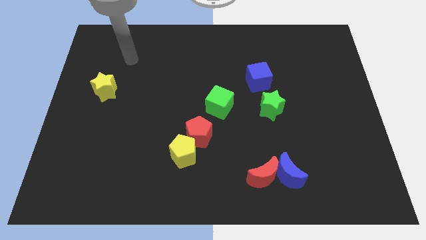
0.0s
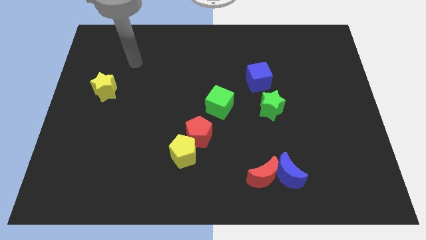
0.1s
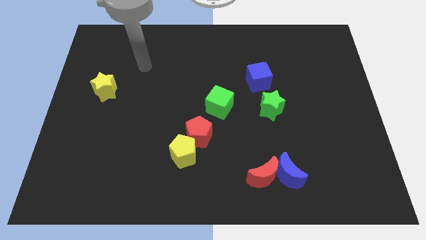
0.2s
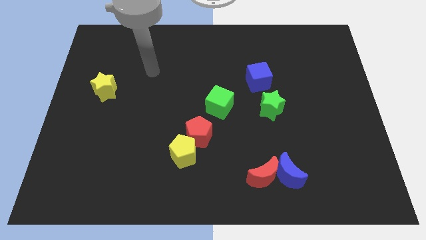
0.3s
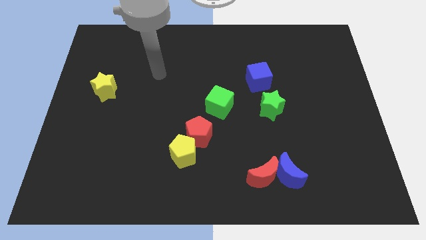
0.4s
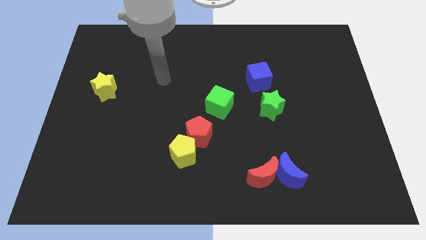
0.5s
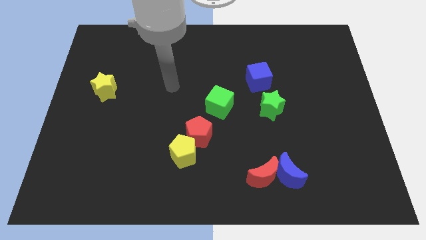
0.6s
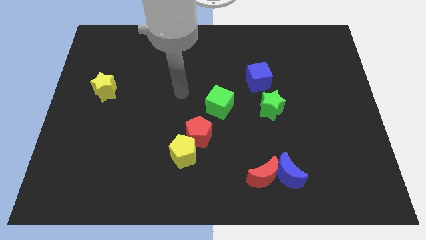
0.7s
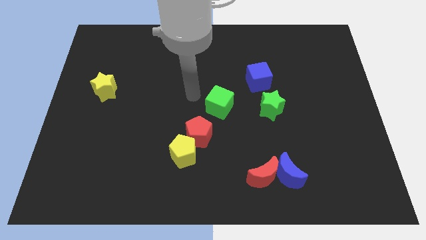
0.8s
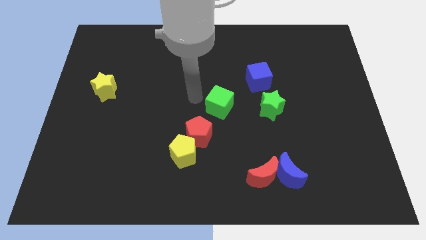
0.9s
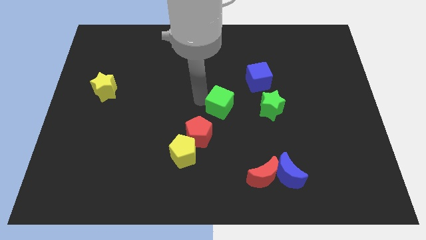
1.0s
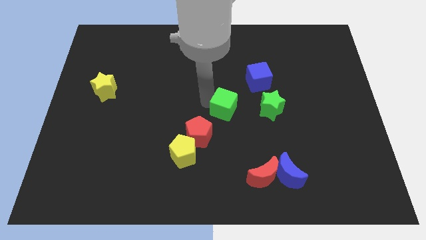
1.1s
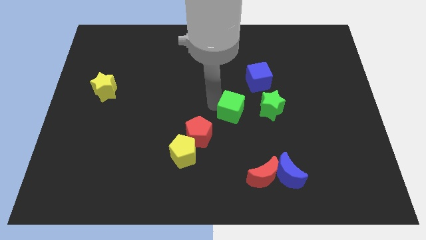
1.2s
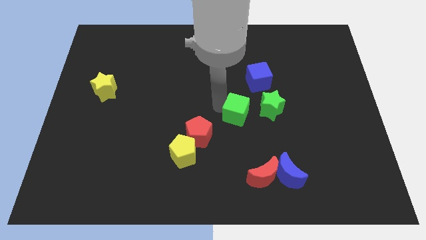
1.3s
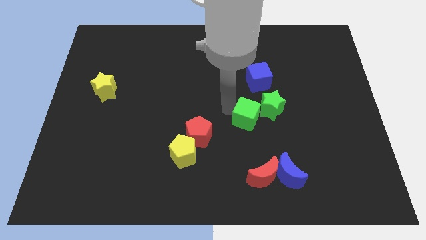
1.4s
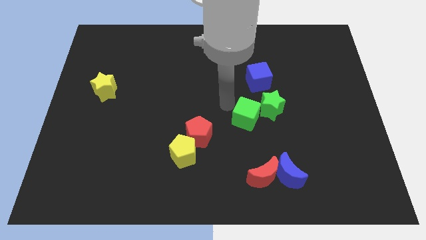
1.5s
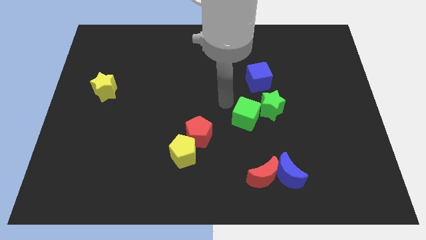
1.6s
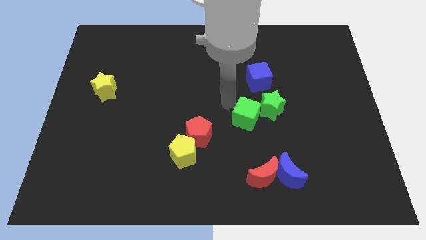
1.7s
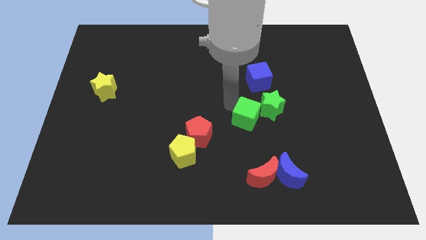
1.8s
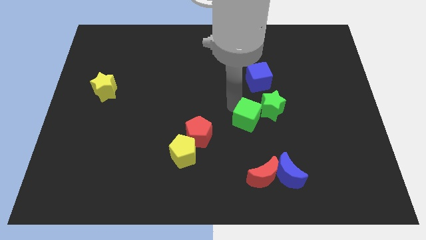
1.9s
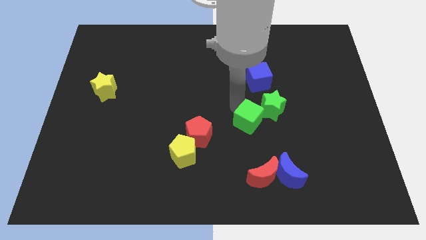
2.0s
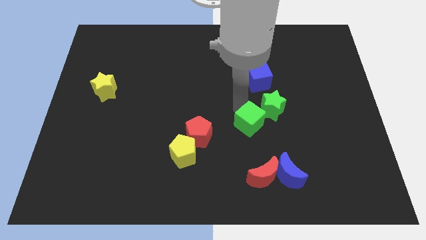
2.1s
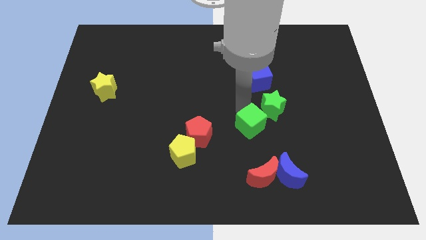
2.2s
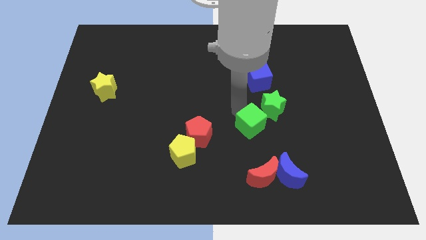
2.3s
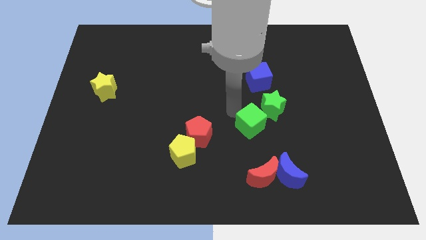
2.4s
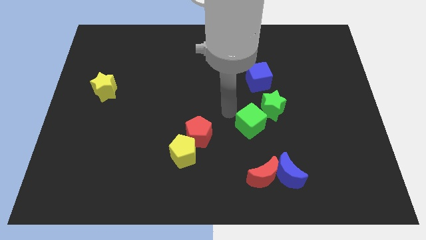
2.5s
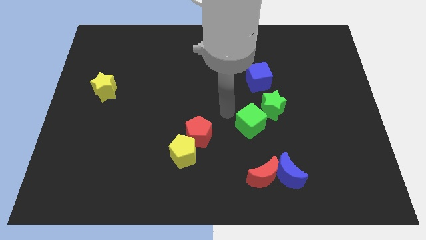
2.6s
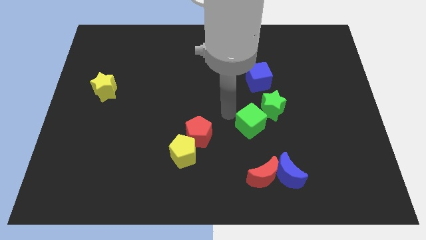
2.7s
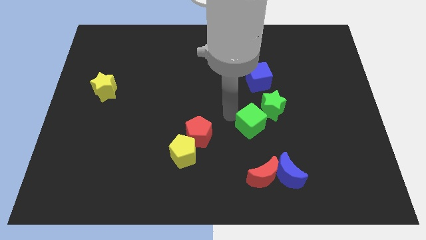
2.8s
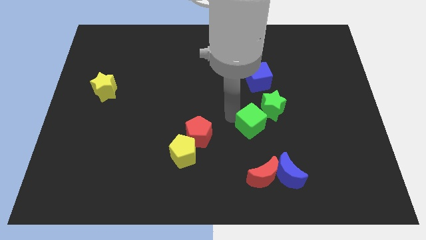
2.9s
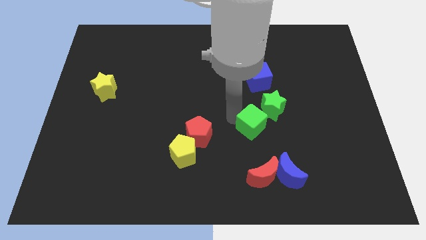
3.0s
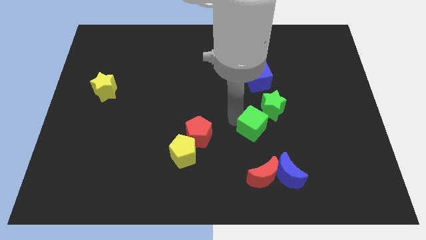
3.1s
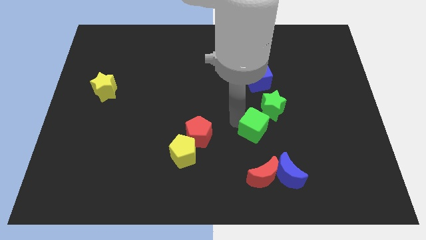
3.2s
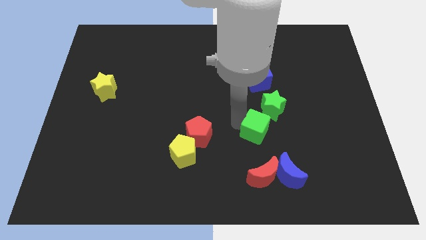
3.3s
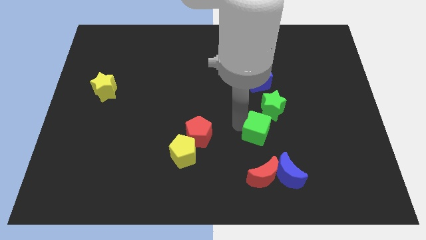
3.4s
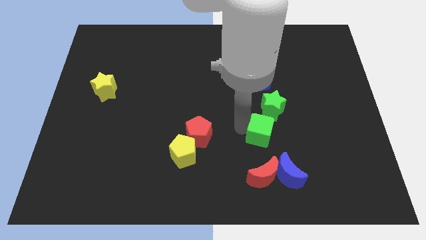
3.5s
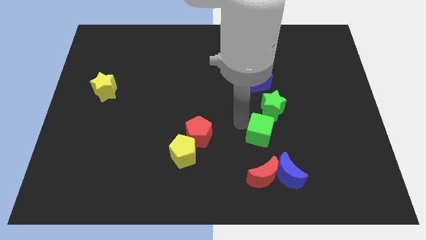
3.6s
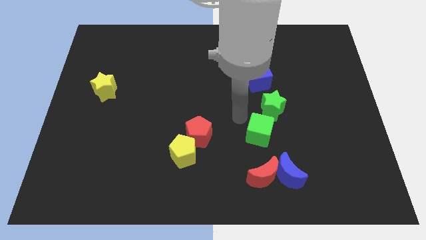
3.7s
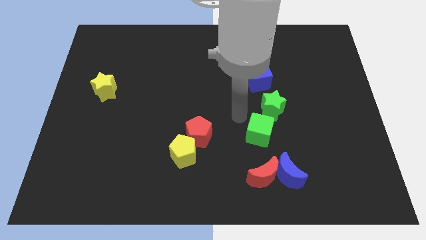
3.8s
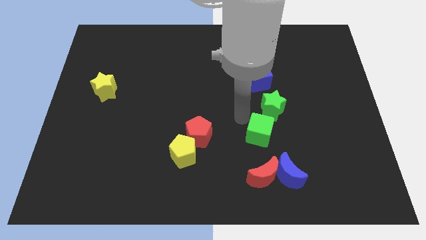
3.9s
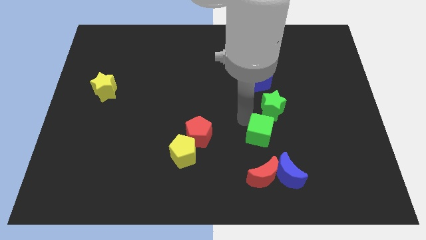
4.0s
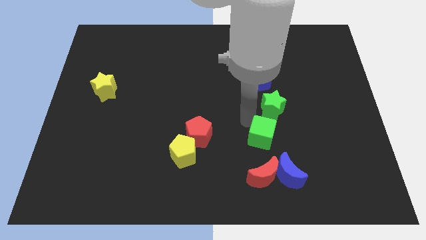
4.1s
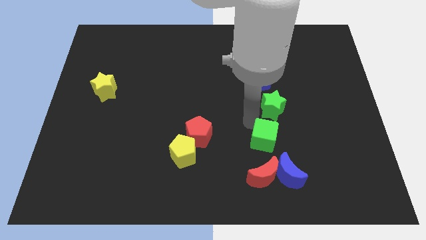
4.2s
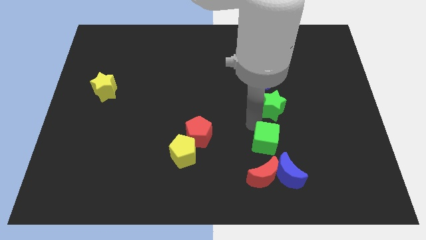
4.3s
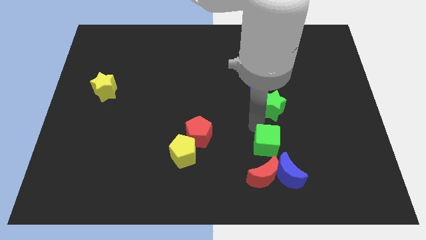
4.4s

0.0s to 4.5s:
put the green cube diagonally up and to the right of the red moon

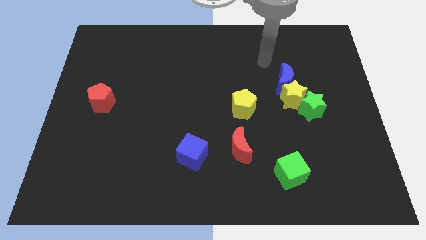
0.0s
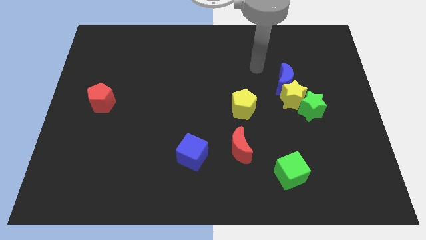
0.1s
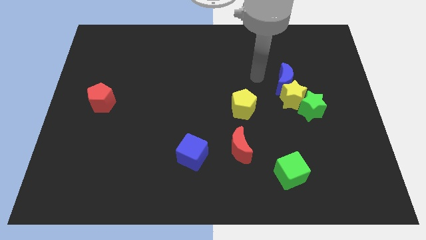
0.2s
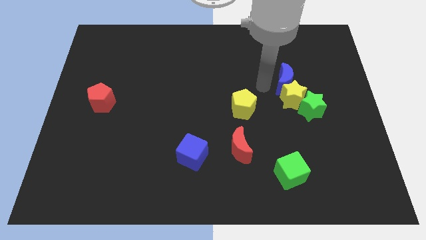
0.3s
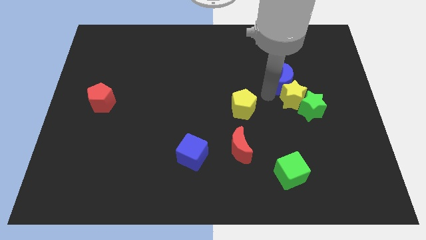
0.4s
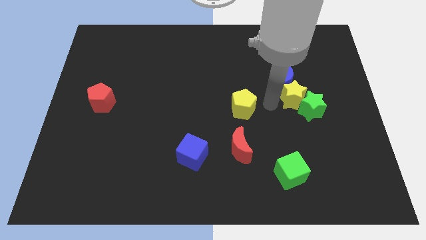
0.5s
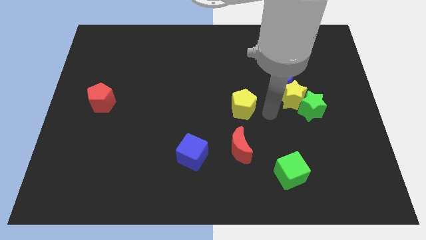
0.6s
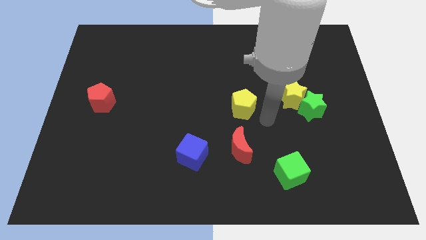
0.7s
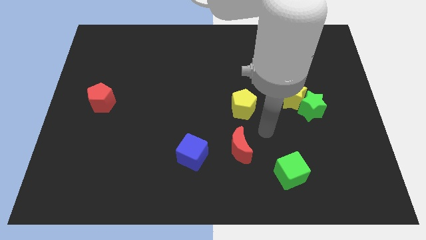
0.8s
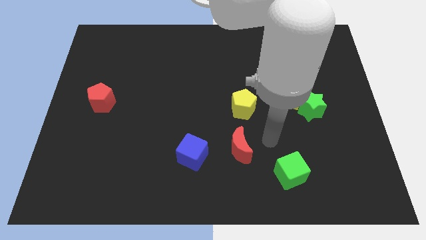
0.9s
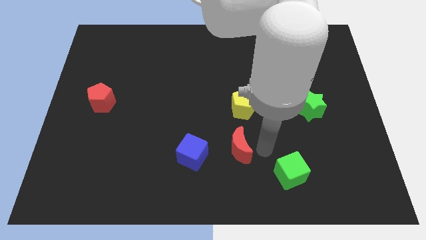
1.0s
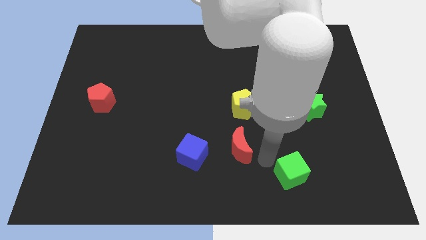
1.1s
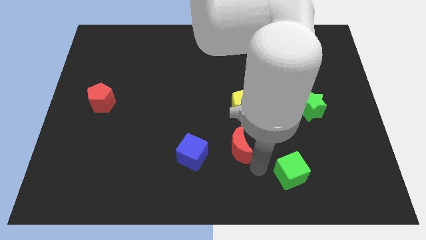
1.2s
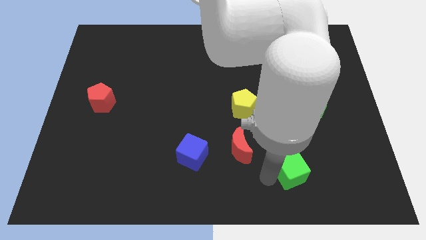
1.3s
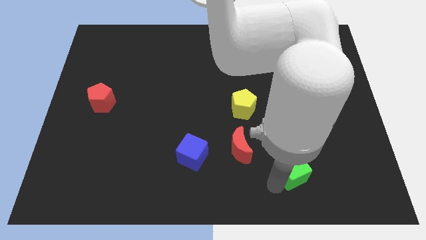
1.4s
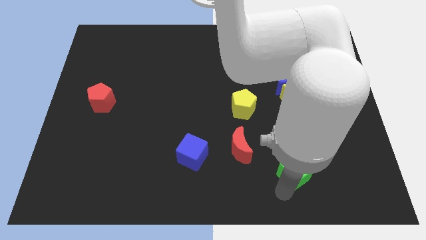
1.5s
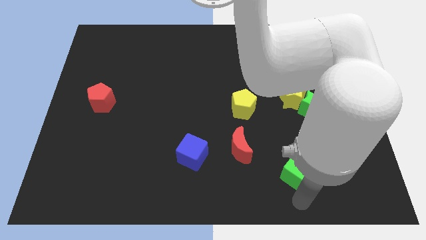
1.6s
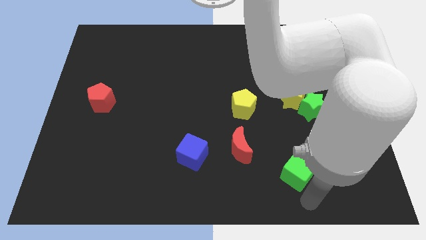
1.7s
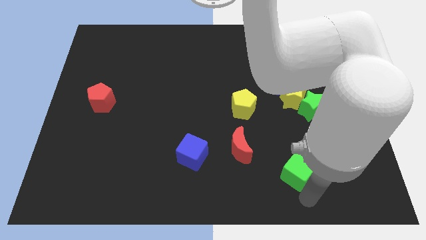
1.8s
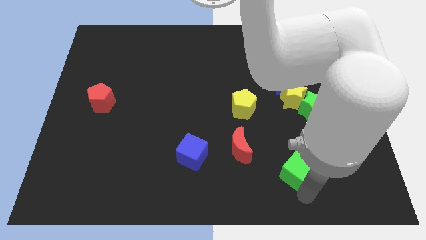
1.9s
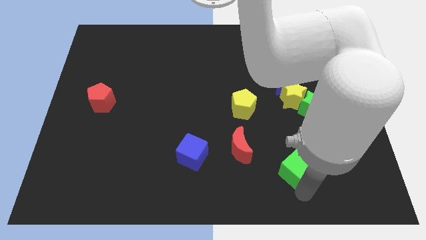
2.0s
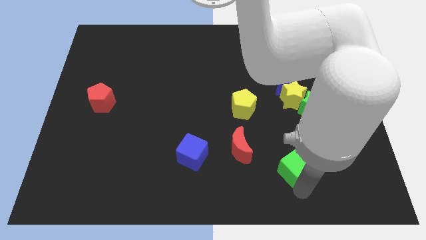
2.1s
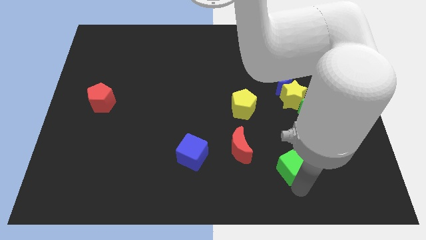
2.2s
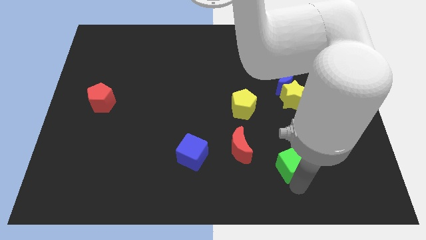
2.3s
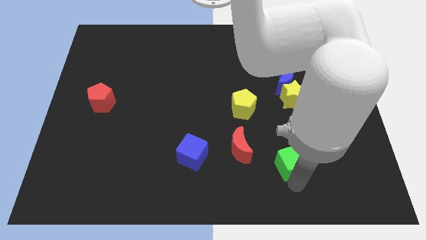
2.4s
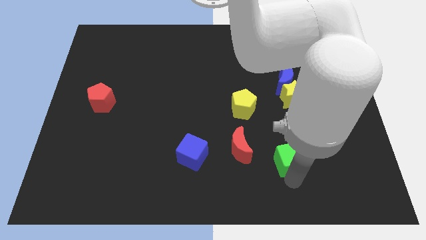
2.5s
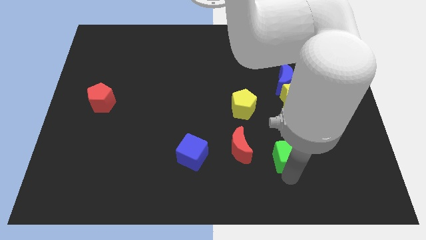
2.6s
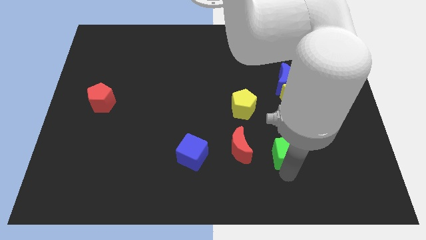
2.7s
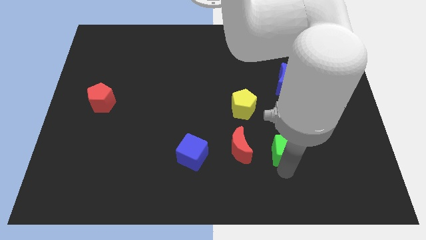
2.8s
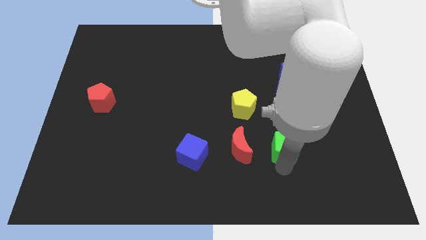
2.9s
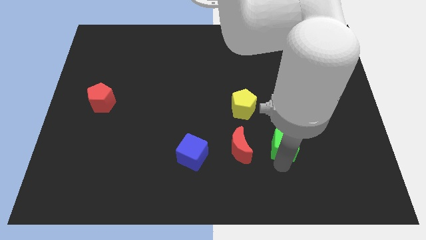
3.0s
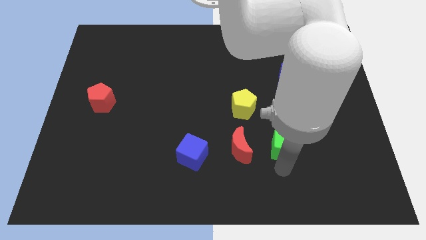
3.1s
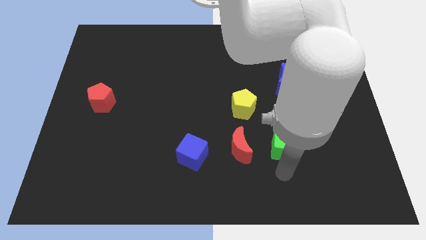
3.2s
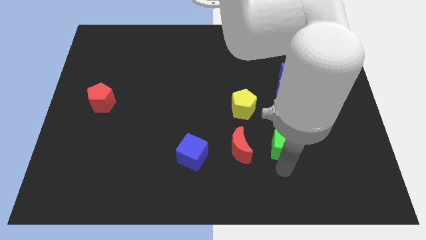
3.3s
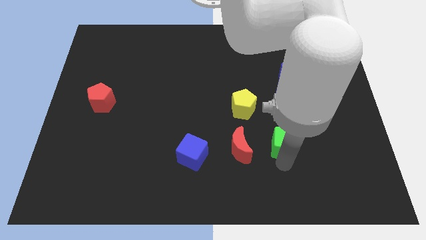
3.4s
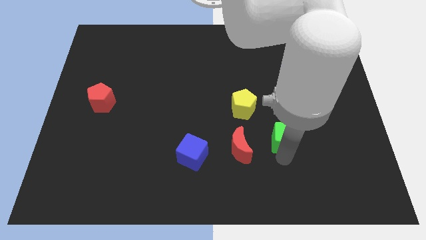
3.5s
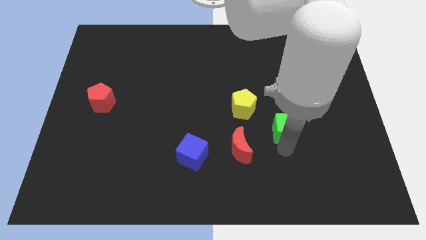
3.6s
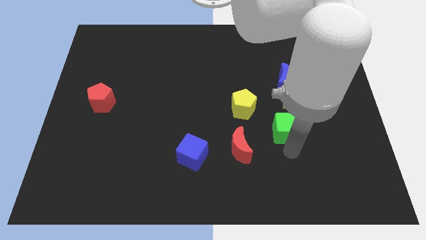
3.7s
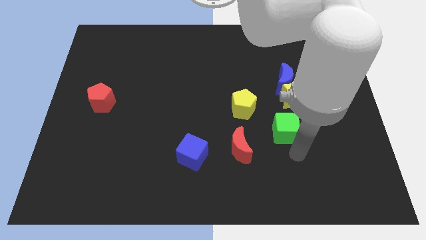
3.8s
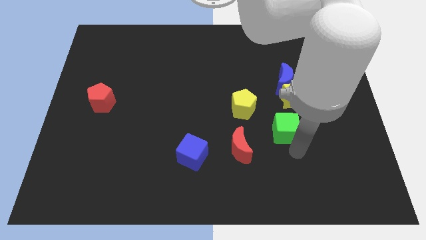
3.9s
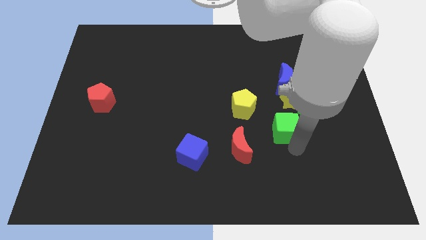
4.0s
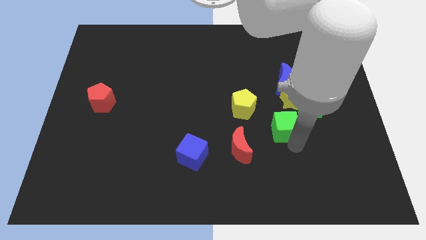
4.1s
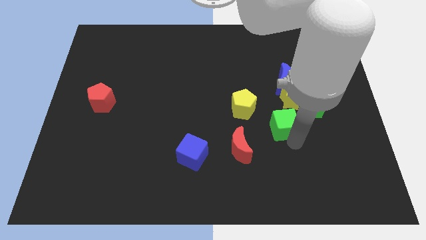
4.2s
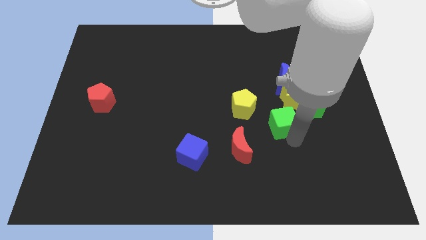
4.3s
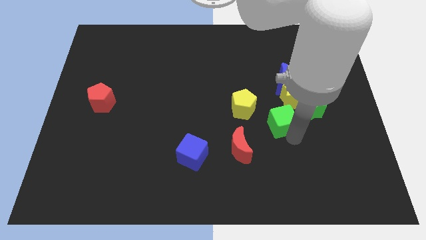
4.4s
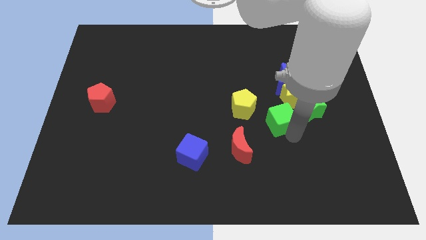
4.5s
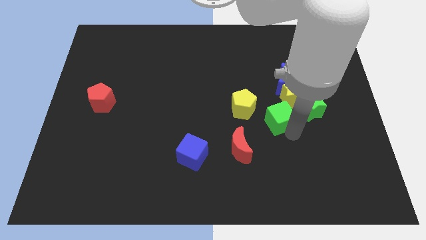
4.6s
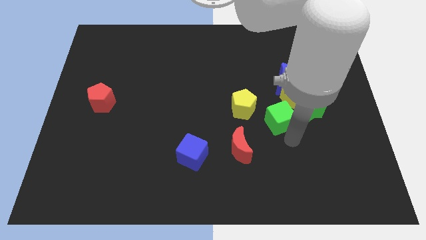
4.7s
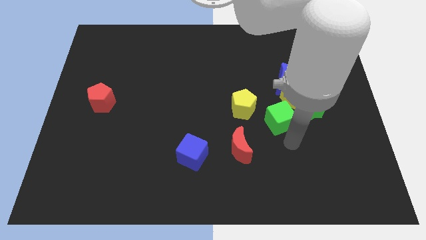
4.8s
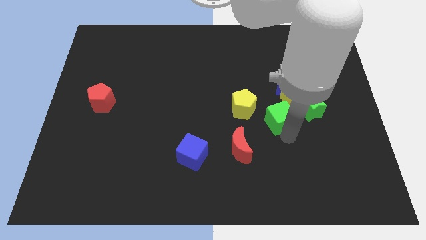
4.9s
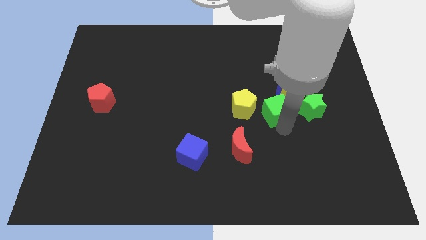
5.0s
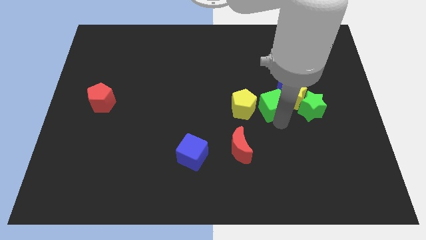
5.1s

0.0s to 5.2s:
move the green cube diagonally up and to the right of the yellow pentagon
